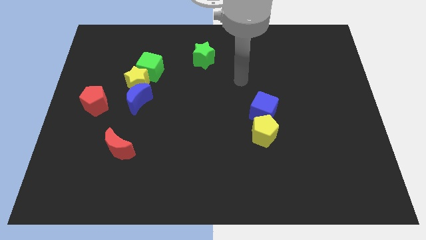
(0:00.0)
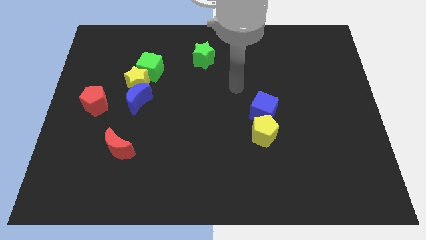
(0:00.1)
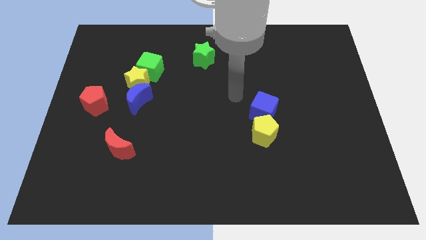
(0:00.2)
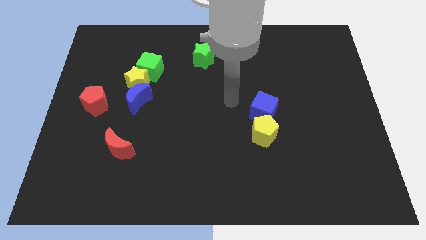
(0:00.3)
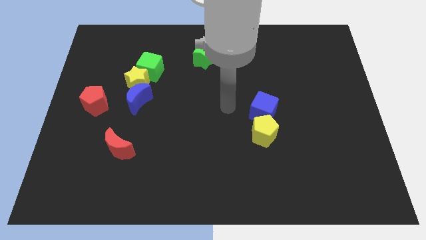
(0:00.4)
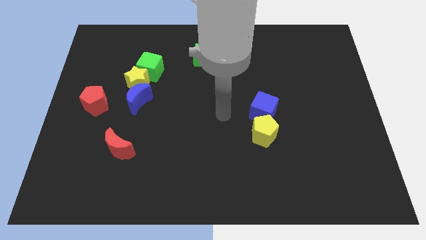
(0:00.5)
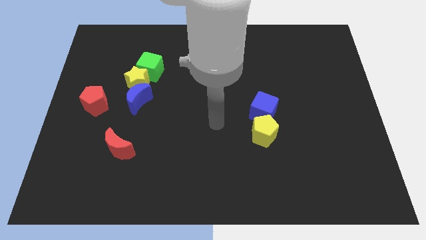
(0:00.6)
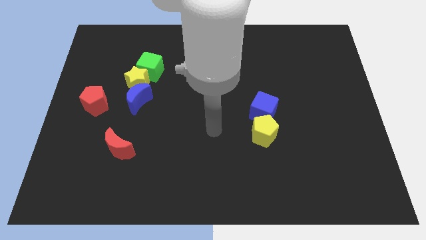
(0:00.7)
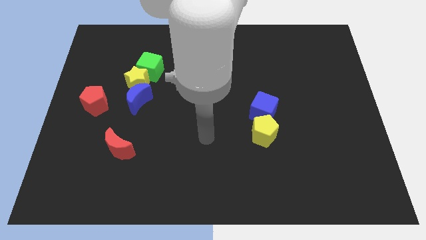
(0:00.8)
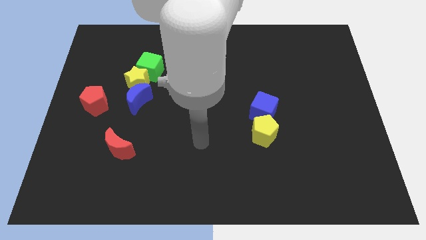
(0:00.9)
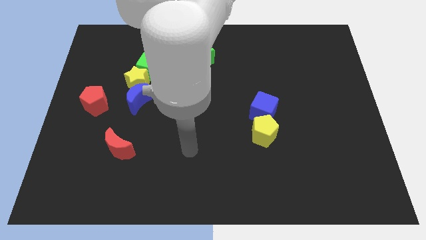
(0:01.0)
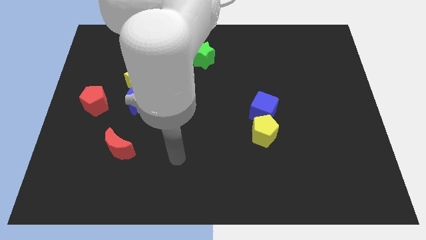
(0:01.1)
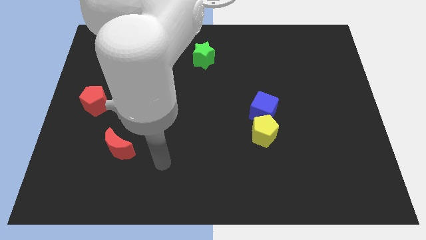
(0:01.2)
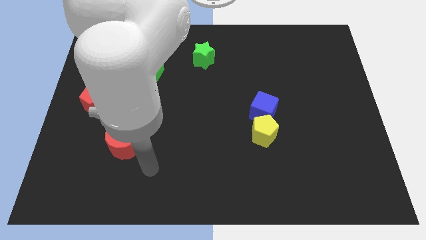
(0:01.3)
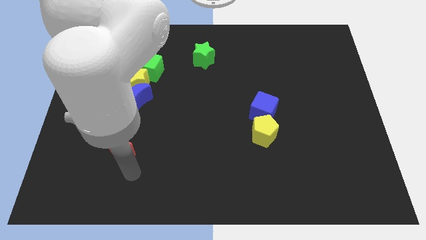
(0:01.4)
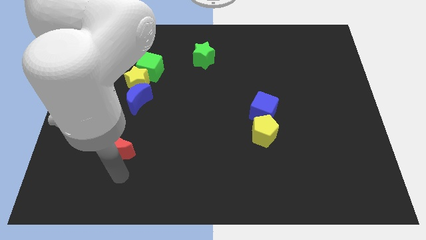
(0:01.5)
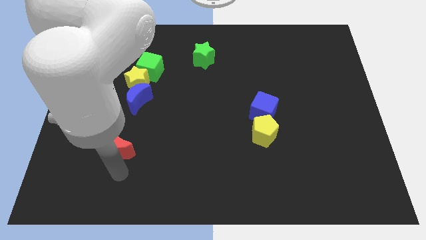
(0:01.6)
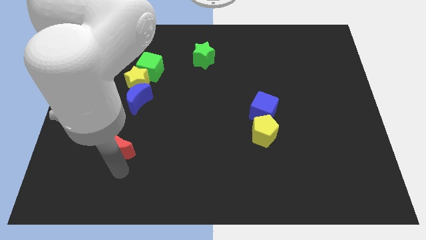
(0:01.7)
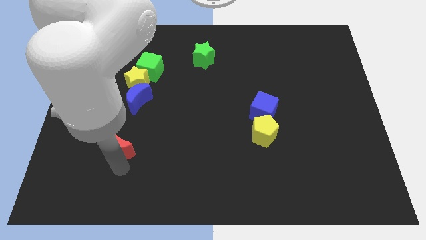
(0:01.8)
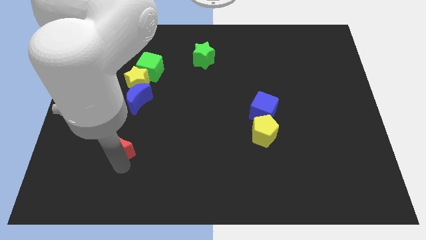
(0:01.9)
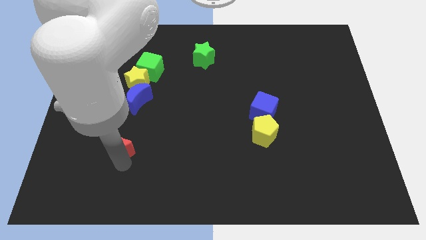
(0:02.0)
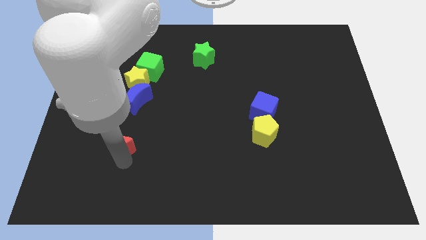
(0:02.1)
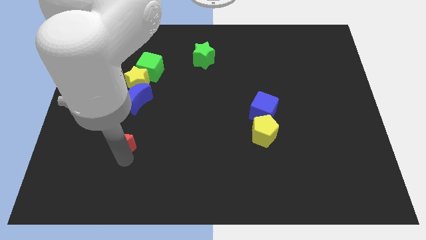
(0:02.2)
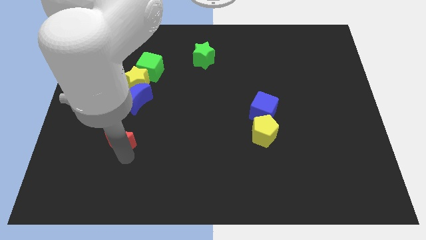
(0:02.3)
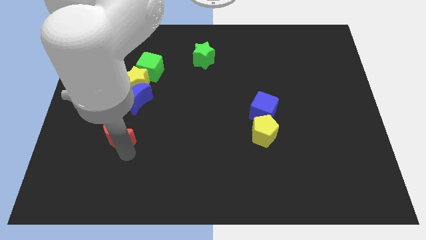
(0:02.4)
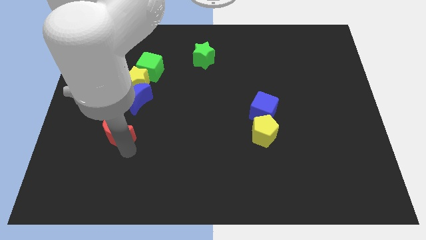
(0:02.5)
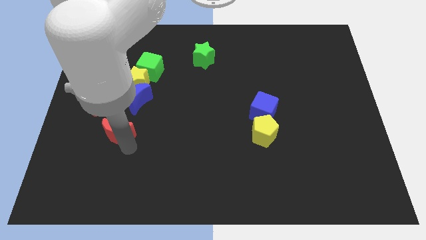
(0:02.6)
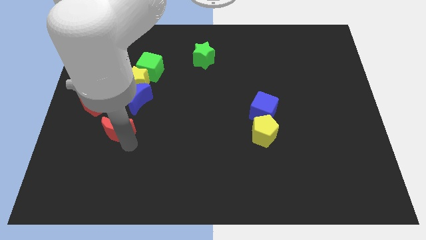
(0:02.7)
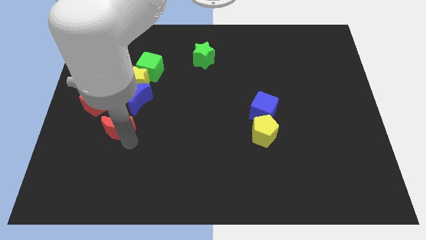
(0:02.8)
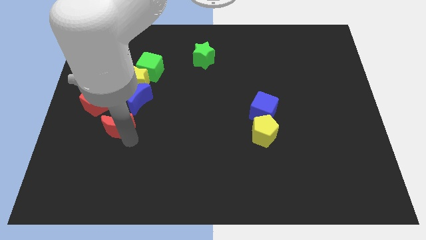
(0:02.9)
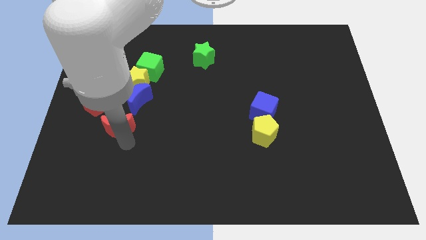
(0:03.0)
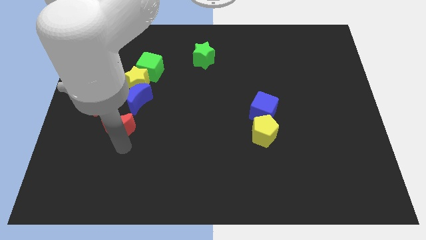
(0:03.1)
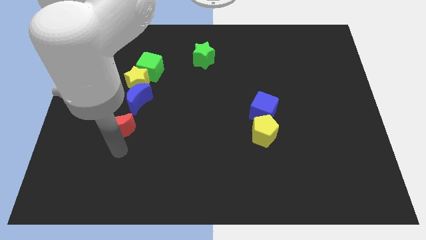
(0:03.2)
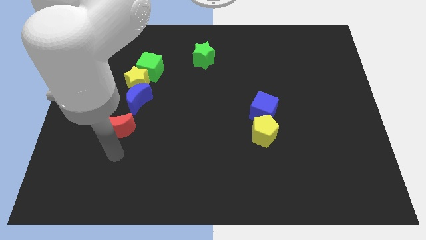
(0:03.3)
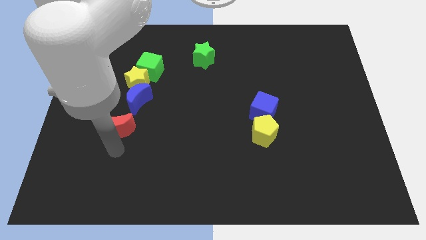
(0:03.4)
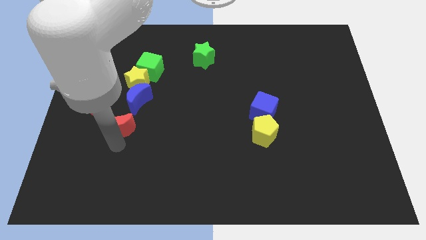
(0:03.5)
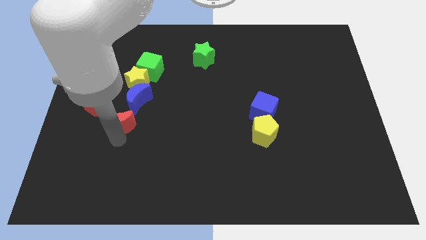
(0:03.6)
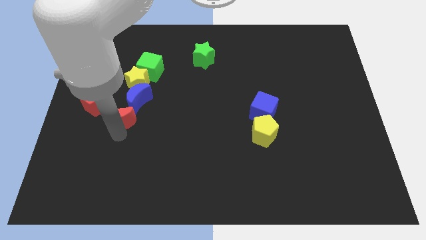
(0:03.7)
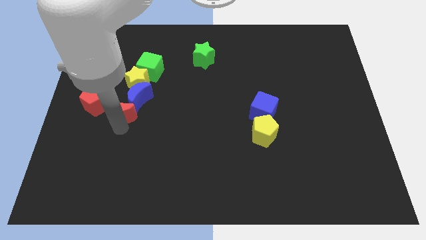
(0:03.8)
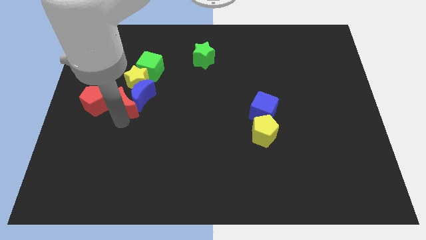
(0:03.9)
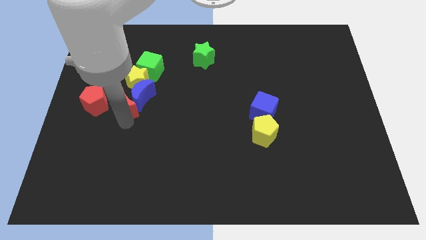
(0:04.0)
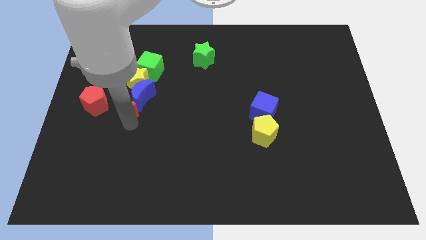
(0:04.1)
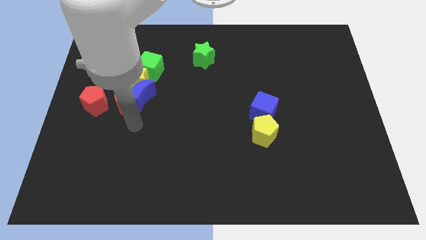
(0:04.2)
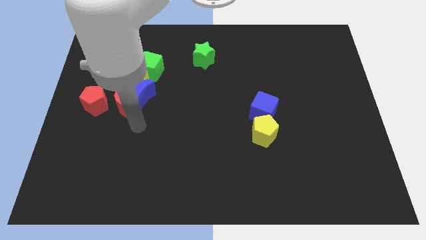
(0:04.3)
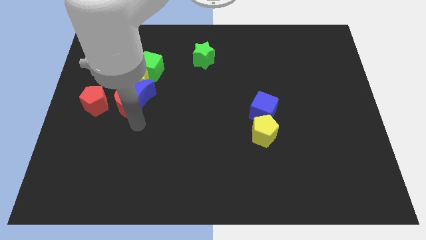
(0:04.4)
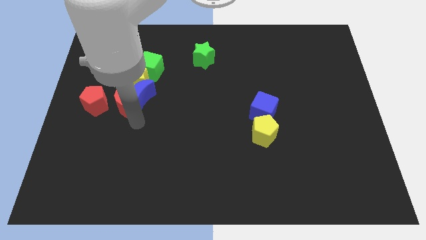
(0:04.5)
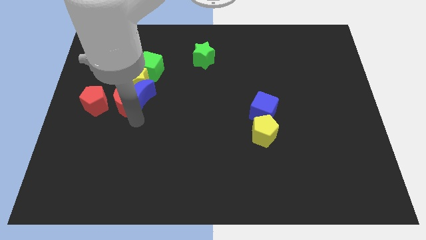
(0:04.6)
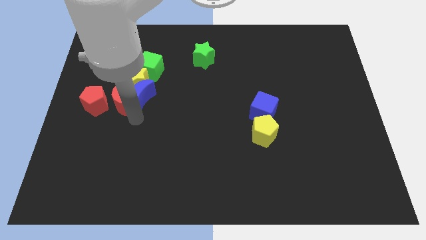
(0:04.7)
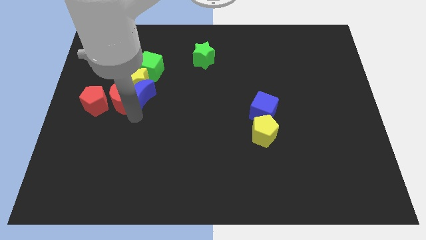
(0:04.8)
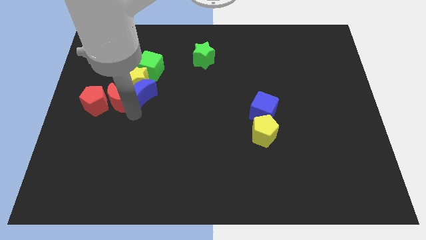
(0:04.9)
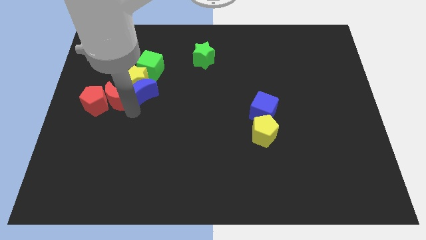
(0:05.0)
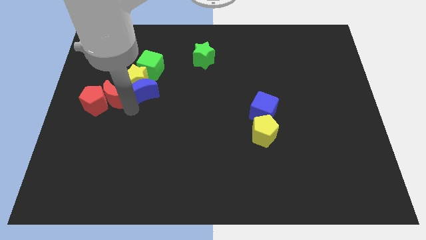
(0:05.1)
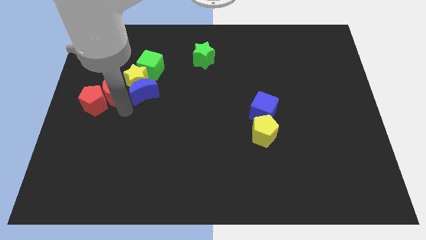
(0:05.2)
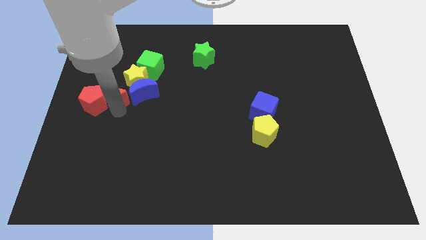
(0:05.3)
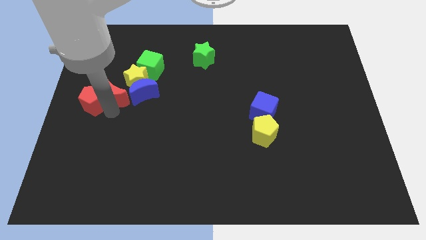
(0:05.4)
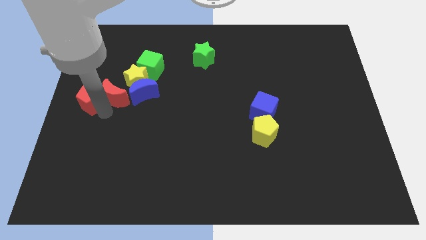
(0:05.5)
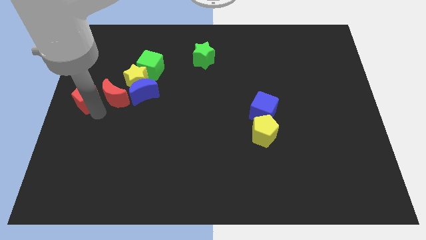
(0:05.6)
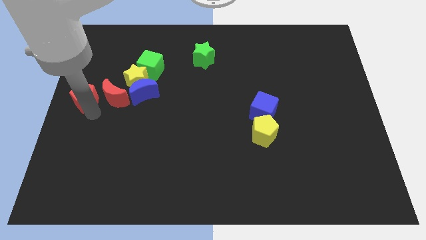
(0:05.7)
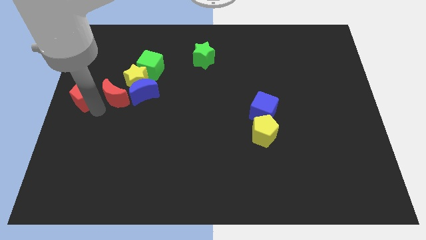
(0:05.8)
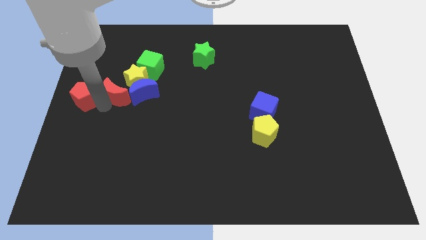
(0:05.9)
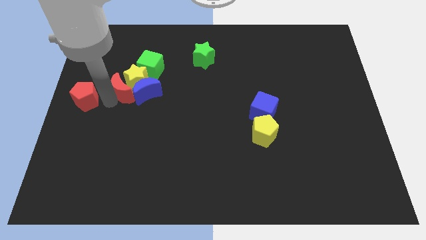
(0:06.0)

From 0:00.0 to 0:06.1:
slide the red moon to the yellow star

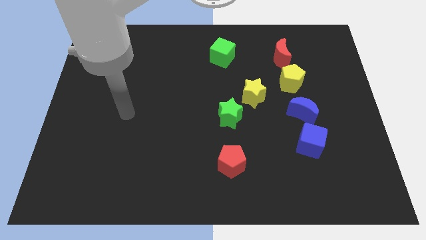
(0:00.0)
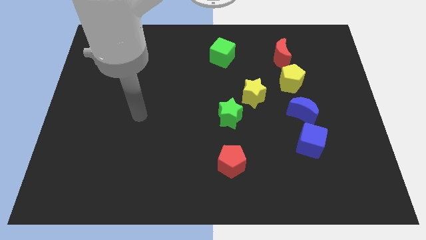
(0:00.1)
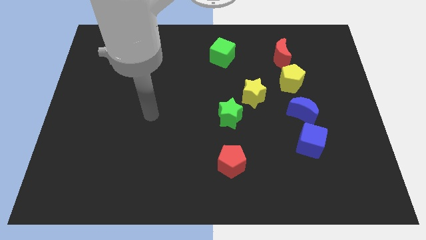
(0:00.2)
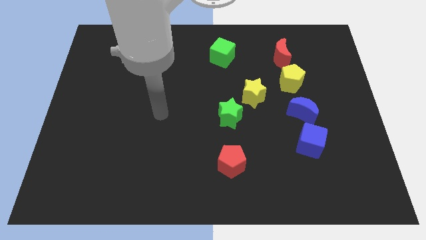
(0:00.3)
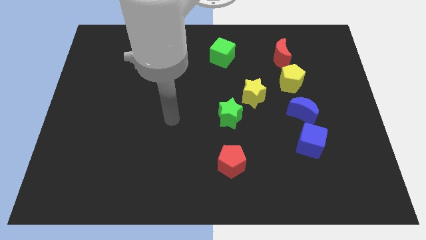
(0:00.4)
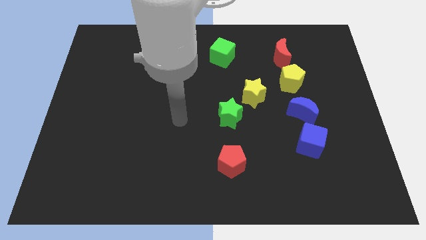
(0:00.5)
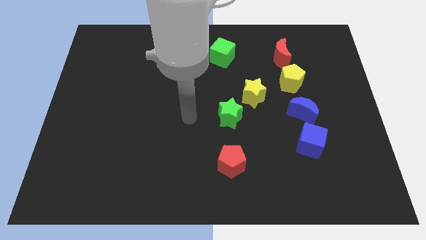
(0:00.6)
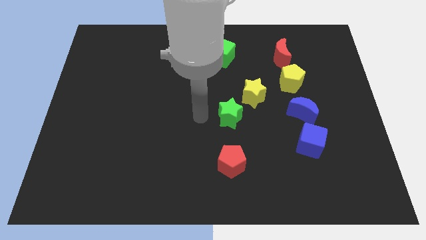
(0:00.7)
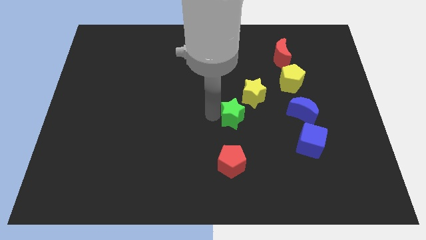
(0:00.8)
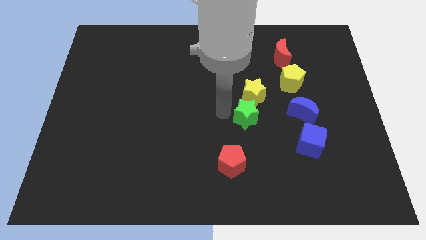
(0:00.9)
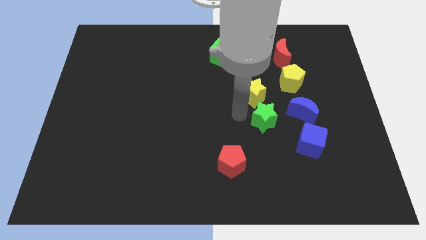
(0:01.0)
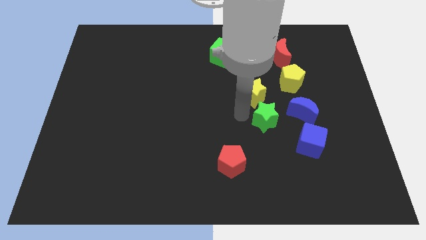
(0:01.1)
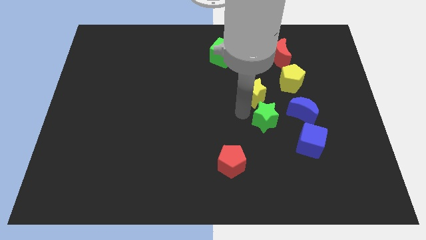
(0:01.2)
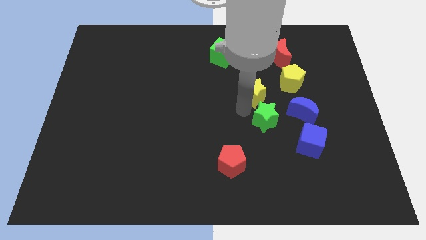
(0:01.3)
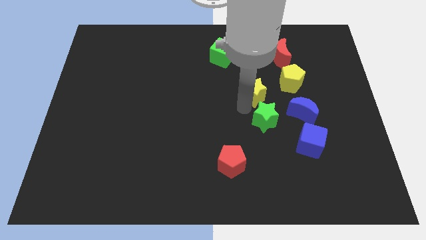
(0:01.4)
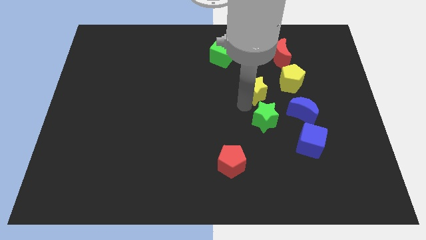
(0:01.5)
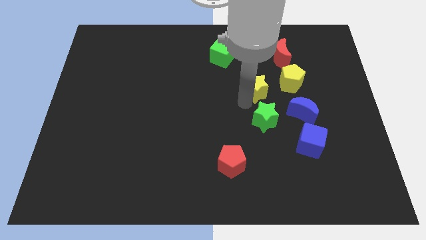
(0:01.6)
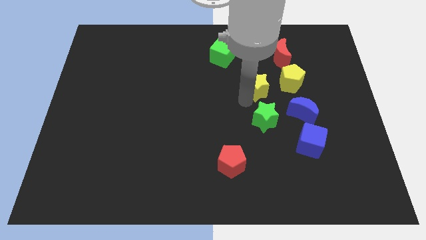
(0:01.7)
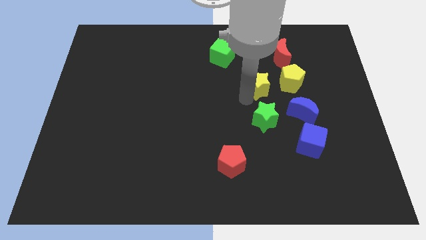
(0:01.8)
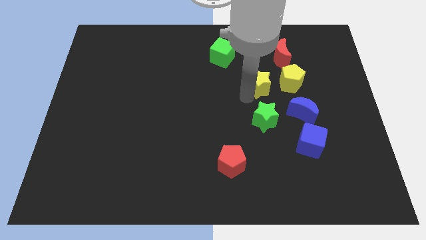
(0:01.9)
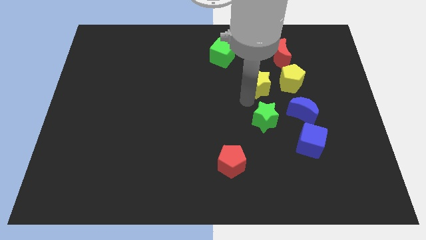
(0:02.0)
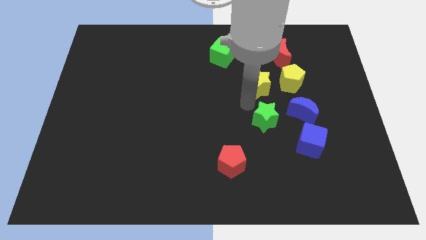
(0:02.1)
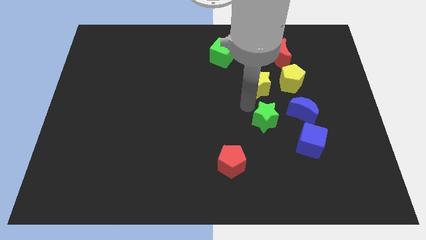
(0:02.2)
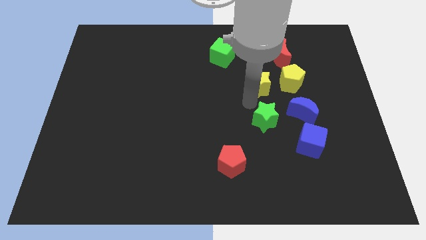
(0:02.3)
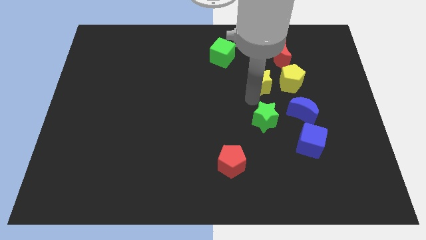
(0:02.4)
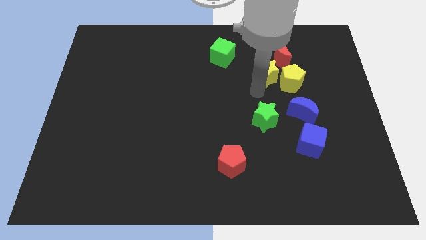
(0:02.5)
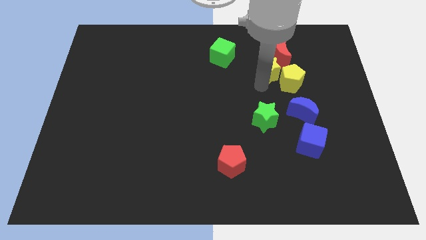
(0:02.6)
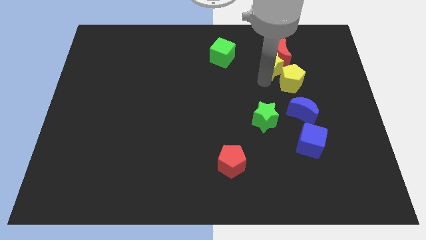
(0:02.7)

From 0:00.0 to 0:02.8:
slide the yellow star next to the red moon
